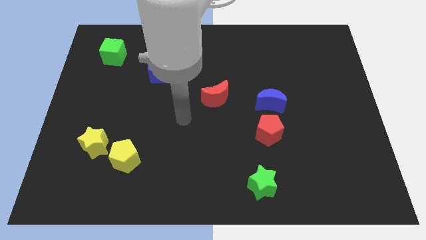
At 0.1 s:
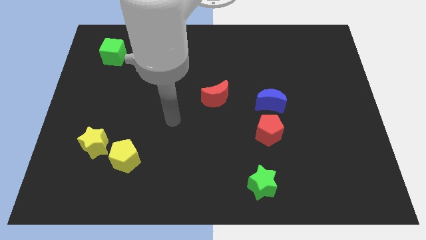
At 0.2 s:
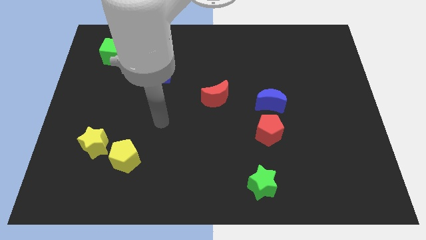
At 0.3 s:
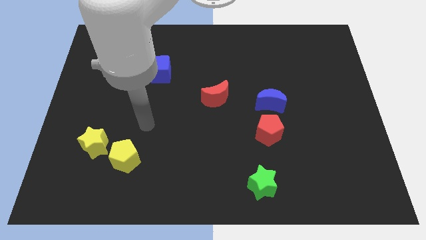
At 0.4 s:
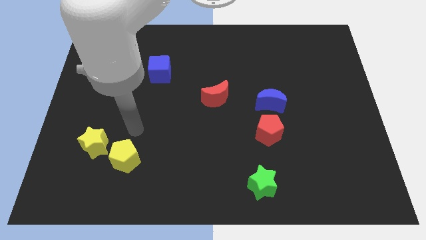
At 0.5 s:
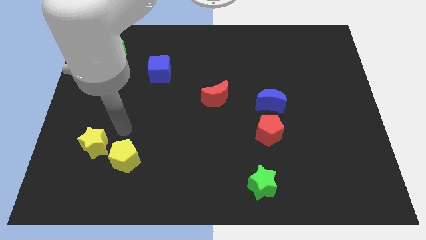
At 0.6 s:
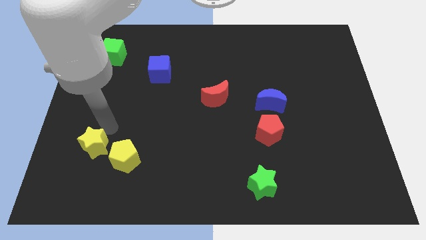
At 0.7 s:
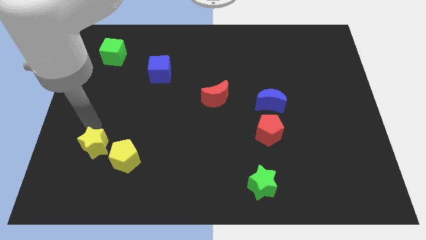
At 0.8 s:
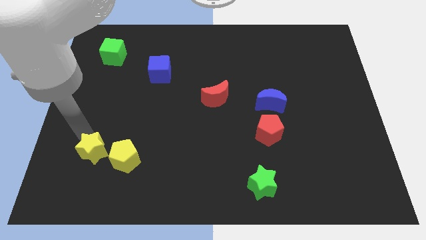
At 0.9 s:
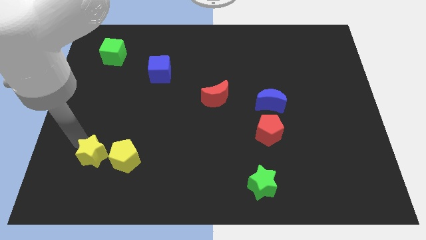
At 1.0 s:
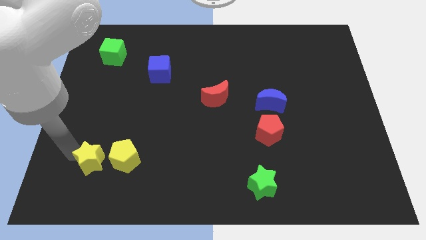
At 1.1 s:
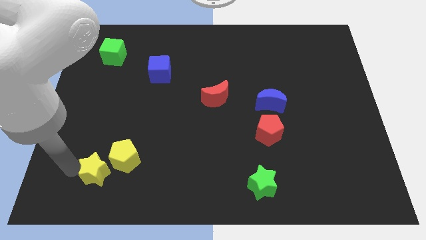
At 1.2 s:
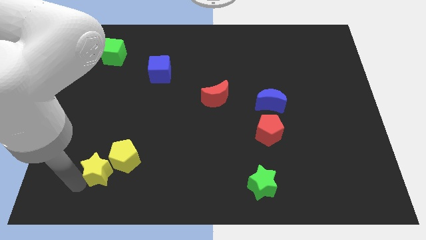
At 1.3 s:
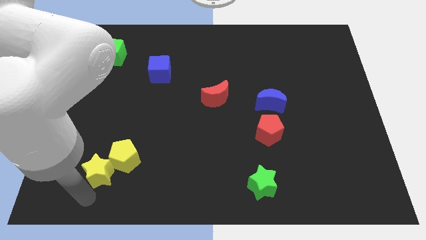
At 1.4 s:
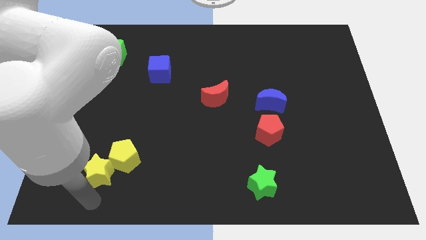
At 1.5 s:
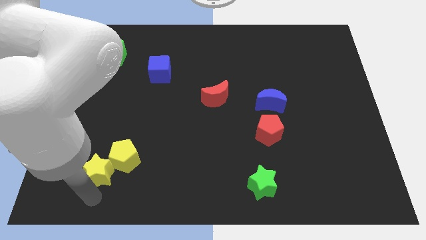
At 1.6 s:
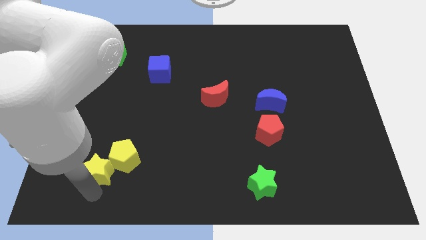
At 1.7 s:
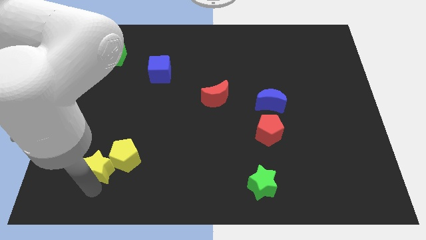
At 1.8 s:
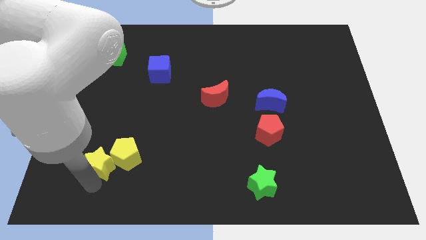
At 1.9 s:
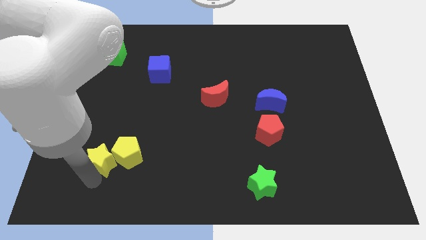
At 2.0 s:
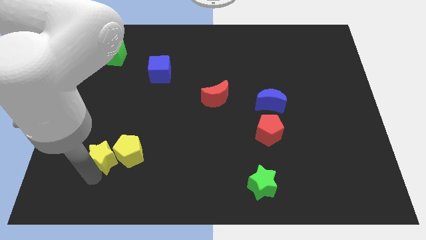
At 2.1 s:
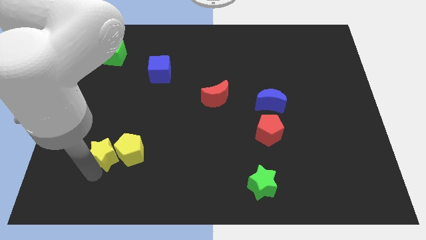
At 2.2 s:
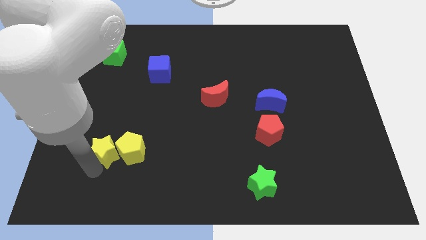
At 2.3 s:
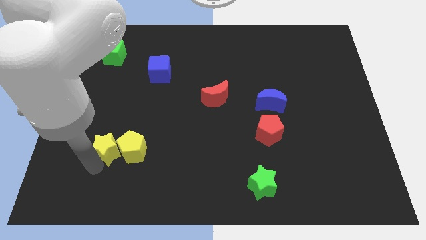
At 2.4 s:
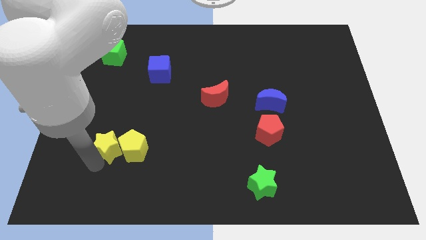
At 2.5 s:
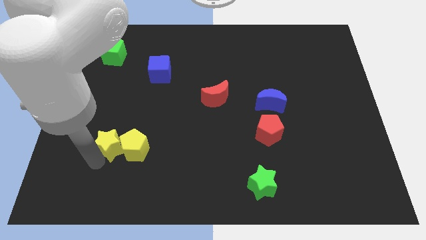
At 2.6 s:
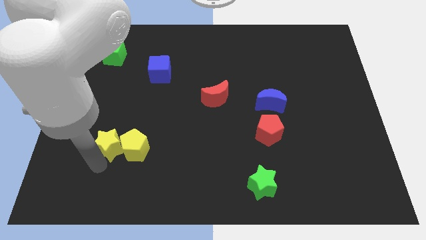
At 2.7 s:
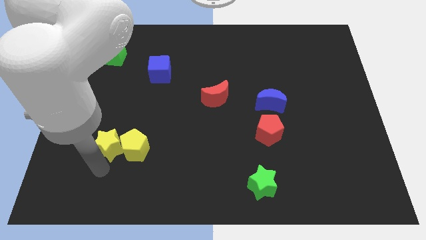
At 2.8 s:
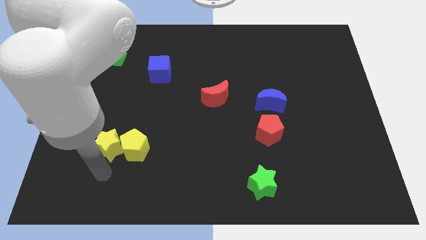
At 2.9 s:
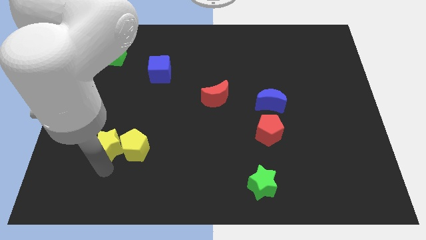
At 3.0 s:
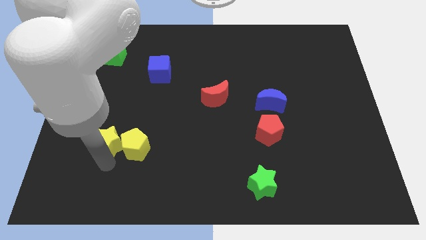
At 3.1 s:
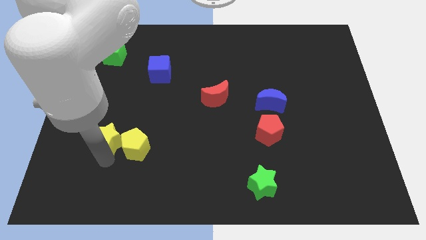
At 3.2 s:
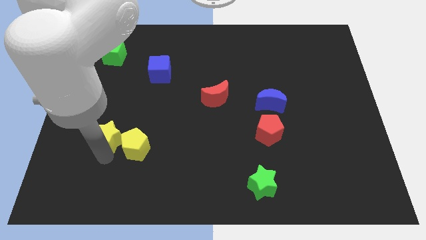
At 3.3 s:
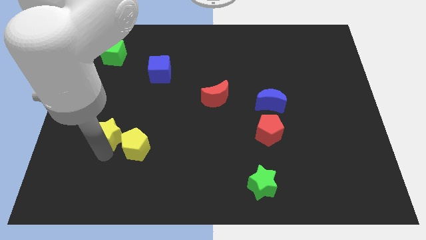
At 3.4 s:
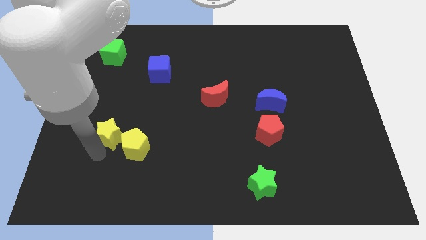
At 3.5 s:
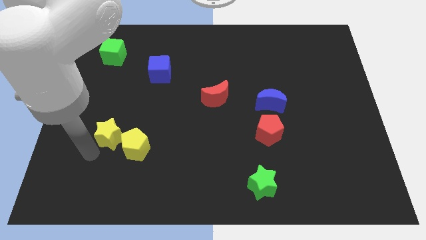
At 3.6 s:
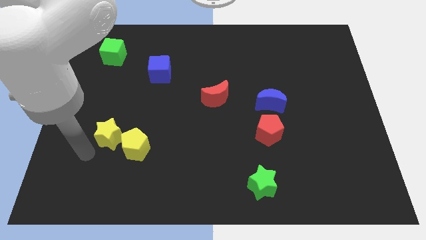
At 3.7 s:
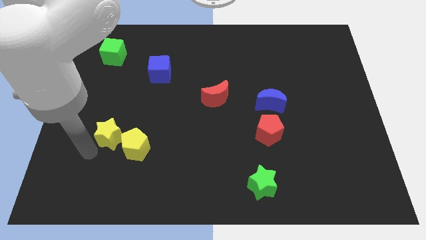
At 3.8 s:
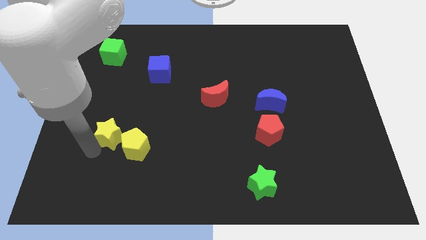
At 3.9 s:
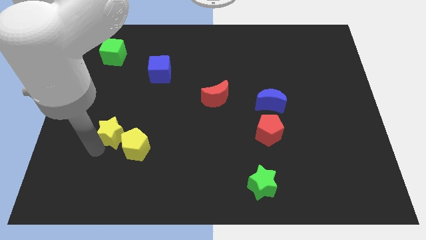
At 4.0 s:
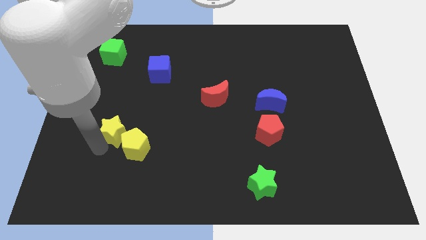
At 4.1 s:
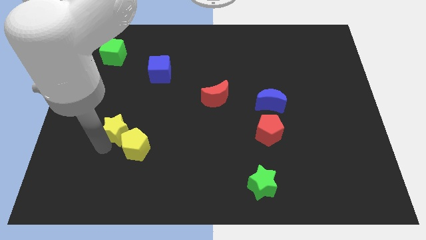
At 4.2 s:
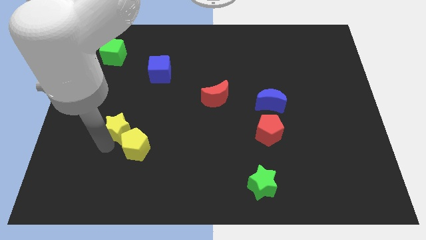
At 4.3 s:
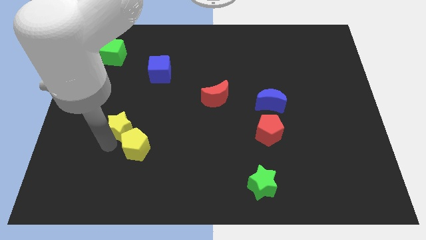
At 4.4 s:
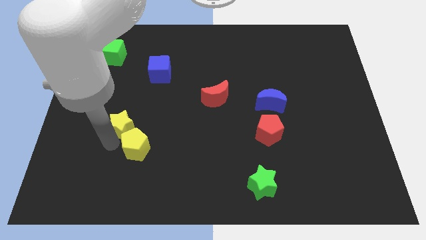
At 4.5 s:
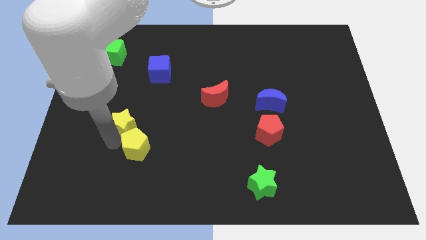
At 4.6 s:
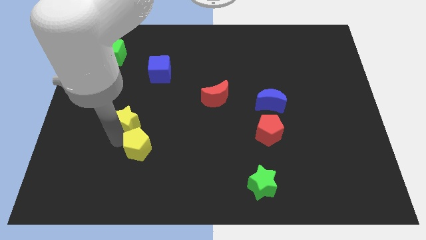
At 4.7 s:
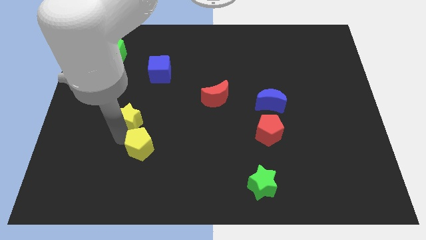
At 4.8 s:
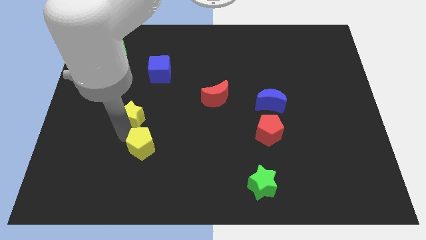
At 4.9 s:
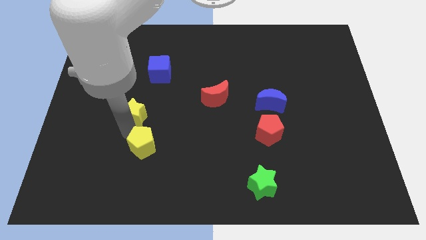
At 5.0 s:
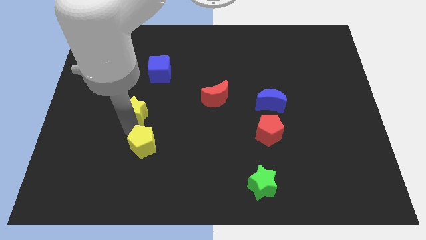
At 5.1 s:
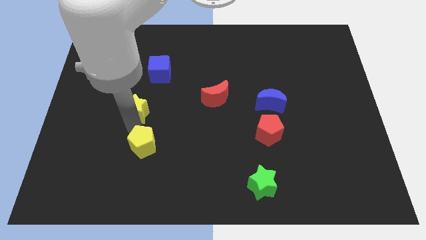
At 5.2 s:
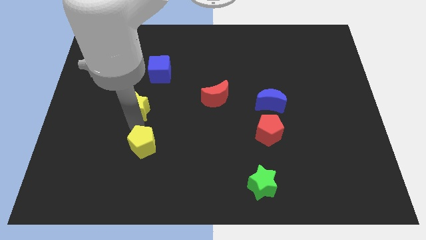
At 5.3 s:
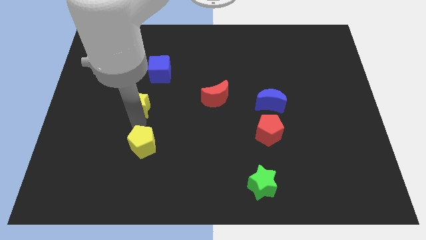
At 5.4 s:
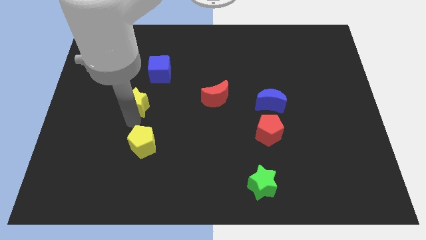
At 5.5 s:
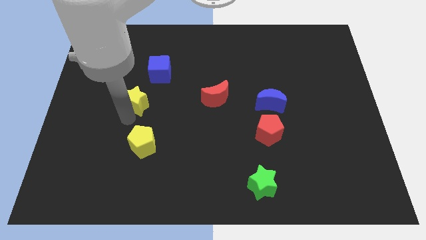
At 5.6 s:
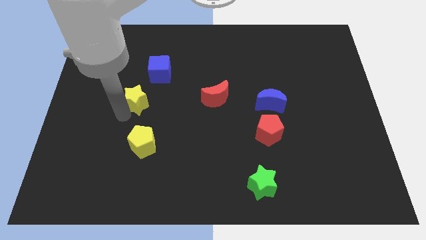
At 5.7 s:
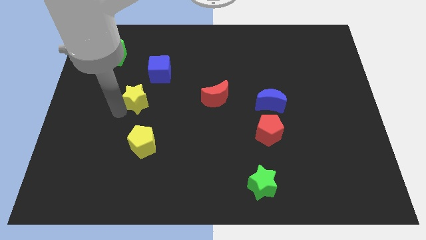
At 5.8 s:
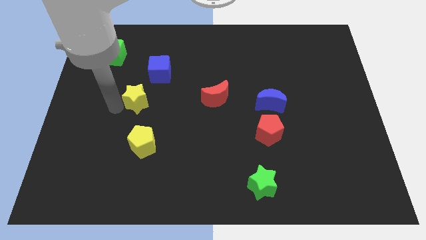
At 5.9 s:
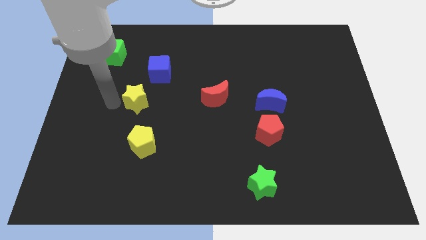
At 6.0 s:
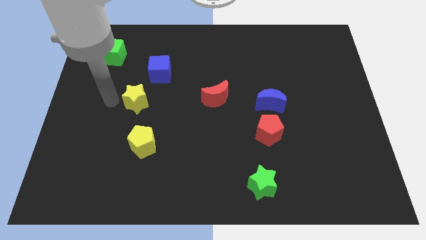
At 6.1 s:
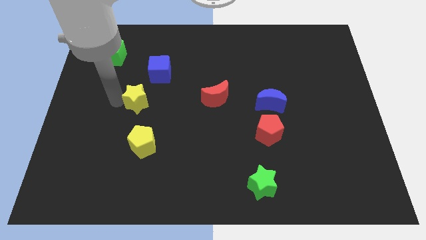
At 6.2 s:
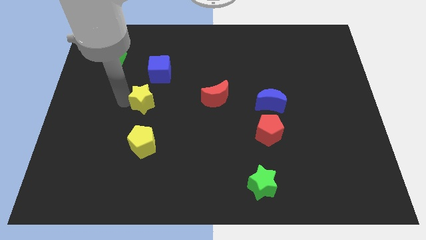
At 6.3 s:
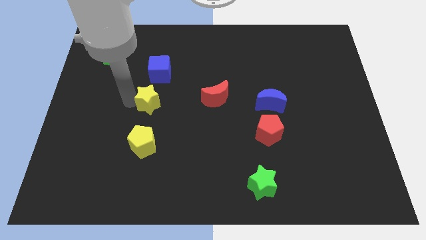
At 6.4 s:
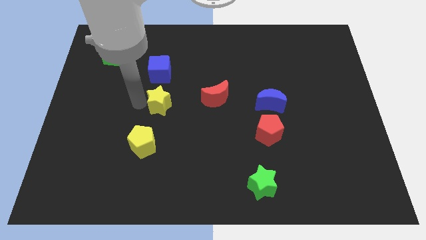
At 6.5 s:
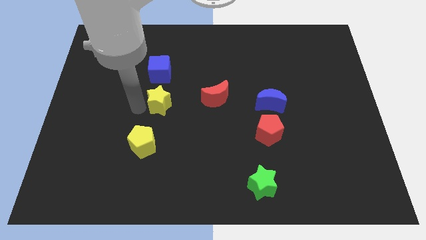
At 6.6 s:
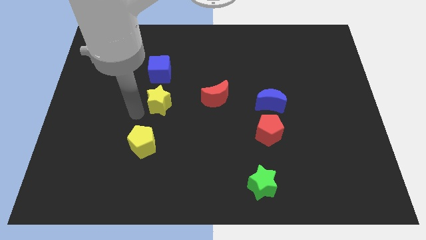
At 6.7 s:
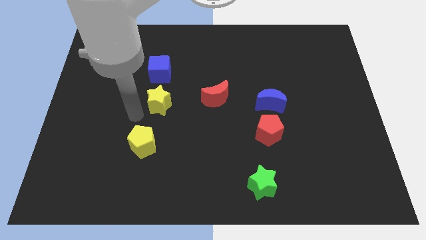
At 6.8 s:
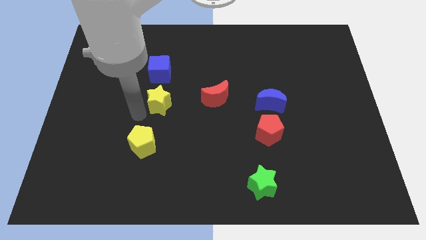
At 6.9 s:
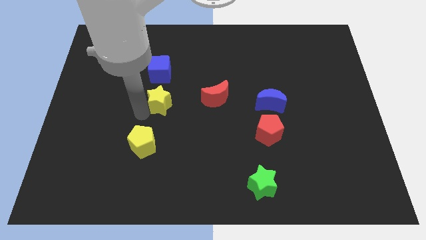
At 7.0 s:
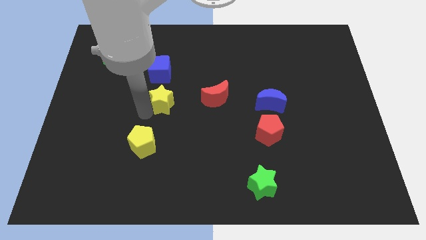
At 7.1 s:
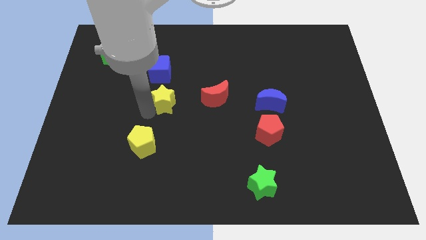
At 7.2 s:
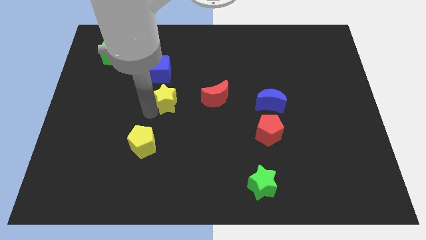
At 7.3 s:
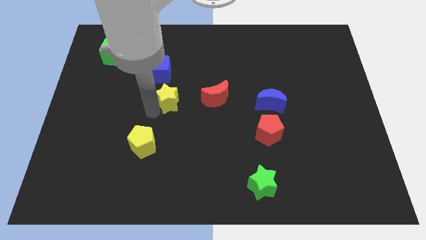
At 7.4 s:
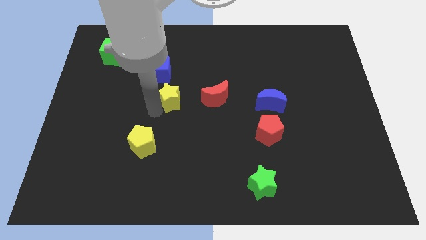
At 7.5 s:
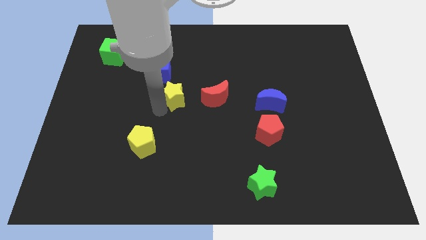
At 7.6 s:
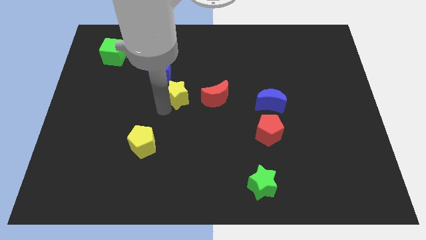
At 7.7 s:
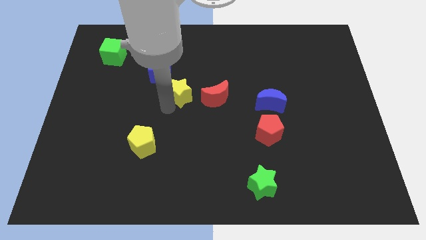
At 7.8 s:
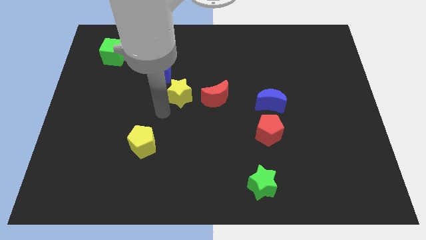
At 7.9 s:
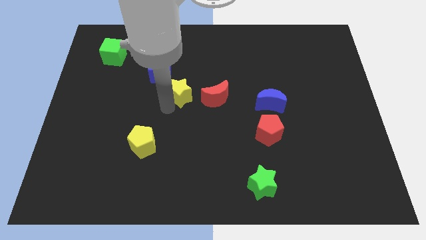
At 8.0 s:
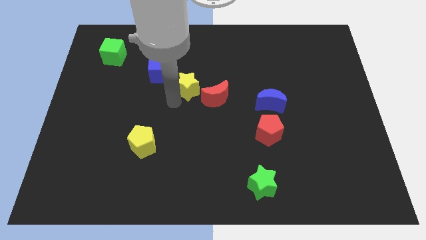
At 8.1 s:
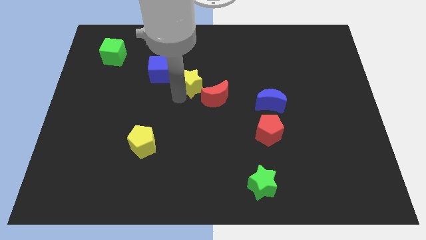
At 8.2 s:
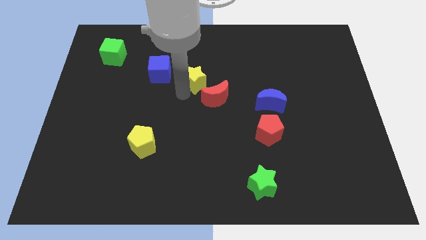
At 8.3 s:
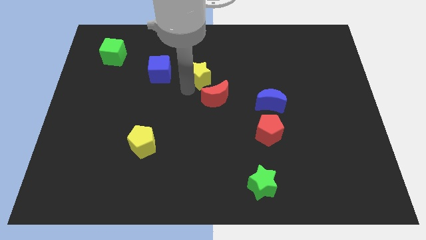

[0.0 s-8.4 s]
slide the yellow star to the top of the red moon
